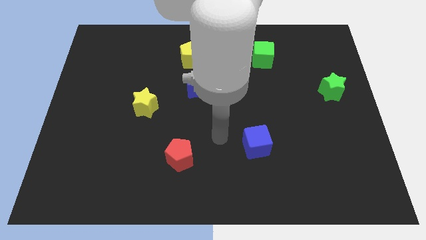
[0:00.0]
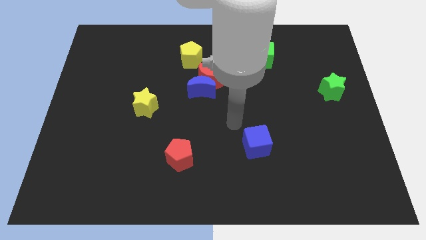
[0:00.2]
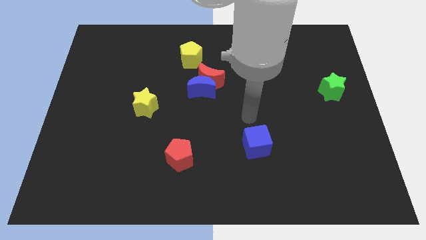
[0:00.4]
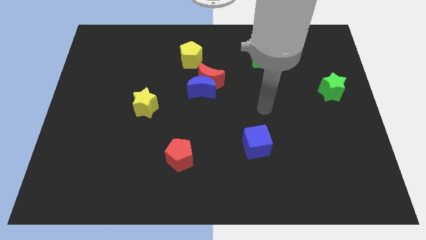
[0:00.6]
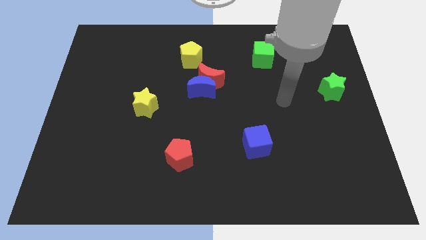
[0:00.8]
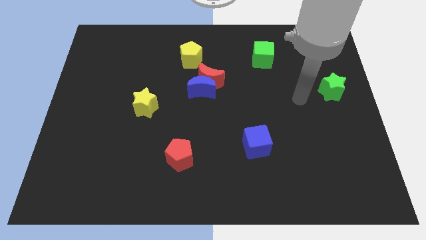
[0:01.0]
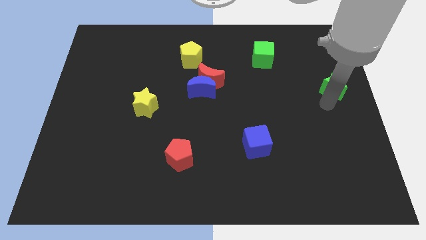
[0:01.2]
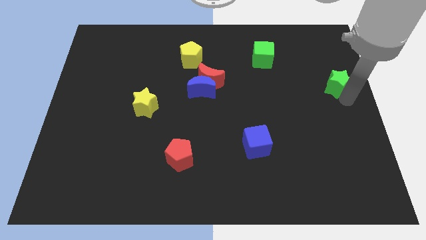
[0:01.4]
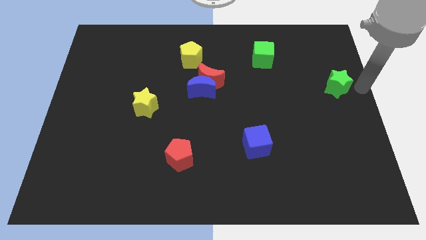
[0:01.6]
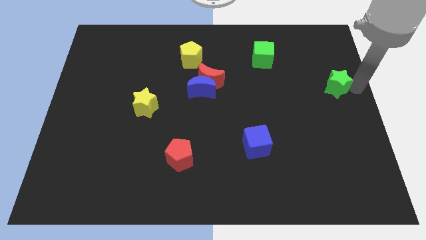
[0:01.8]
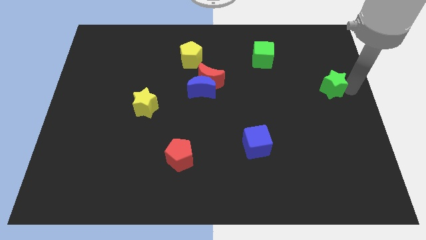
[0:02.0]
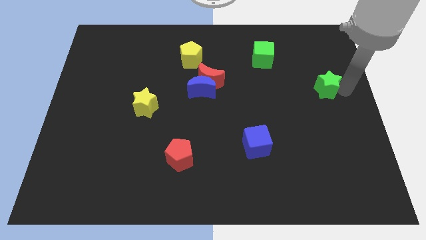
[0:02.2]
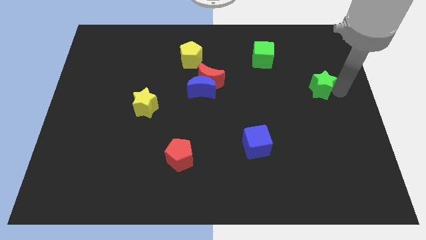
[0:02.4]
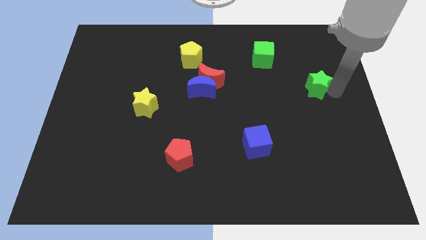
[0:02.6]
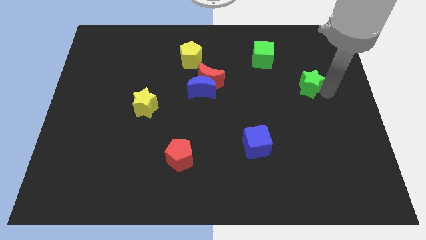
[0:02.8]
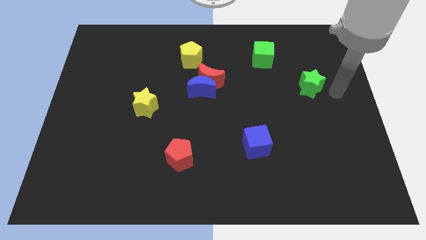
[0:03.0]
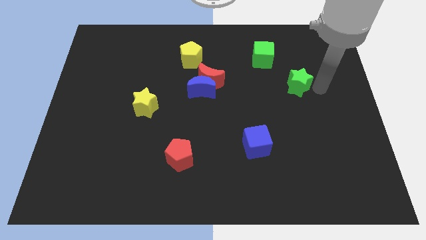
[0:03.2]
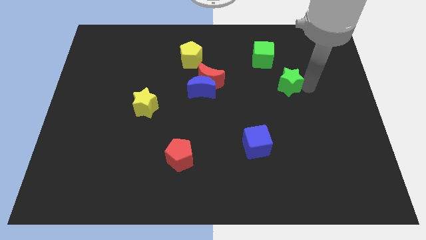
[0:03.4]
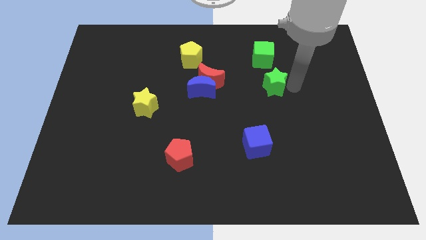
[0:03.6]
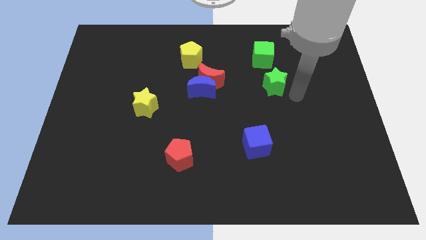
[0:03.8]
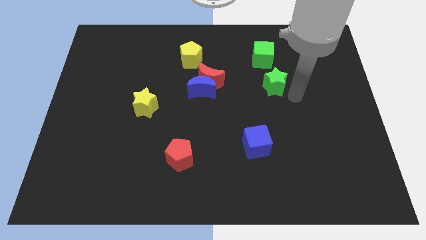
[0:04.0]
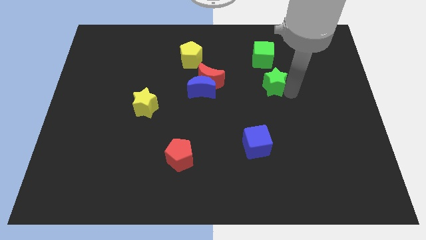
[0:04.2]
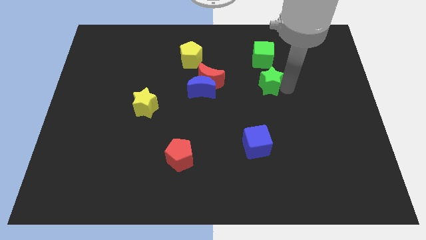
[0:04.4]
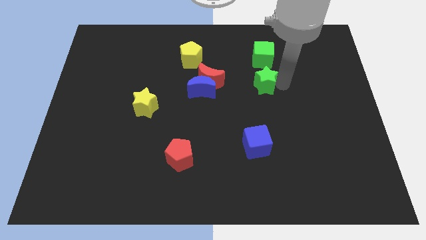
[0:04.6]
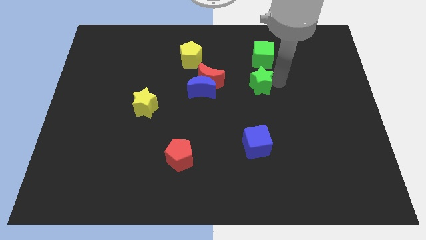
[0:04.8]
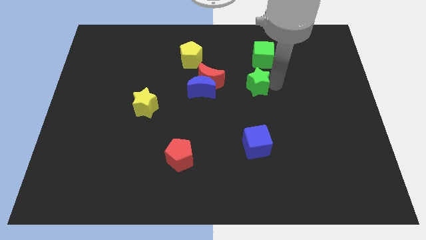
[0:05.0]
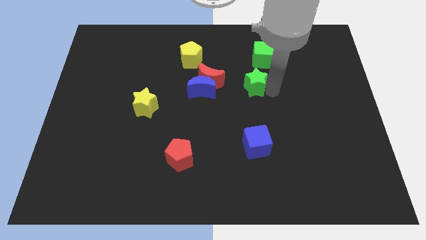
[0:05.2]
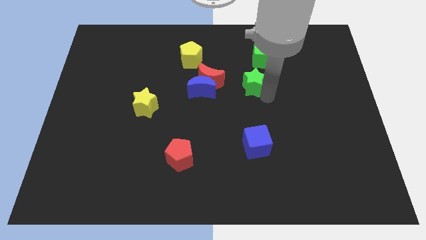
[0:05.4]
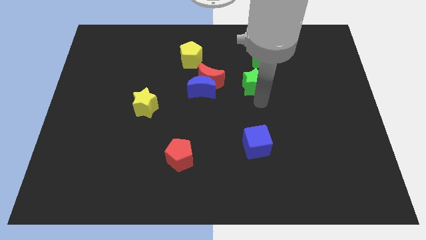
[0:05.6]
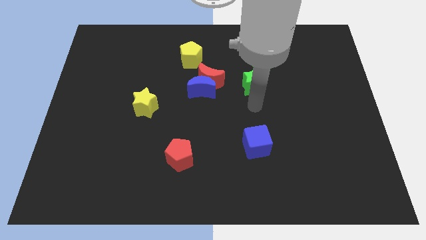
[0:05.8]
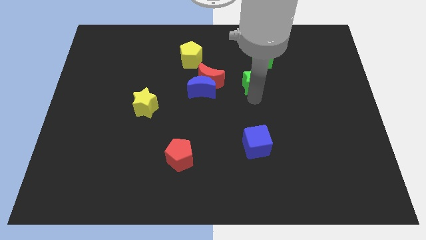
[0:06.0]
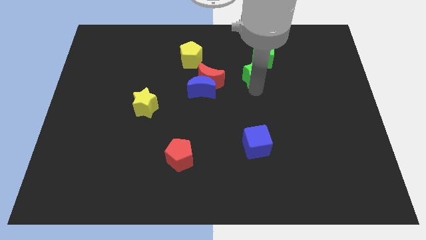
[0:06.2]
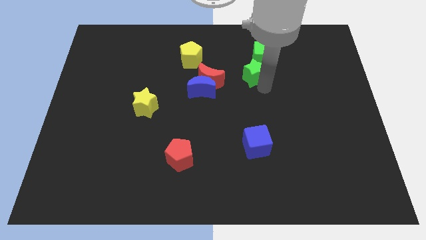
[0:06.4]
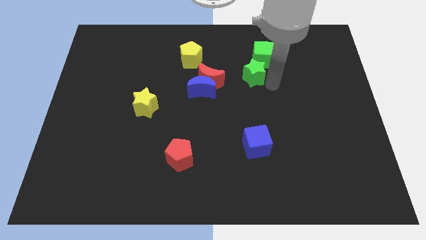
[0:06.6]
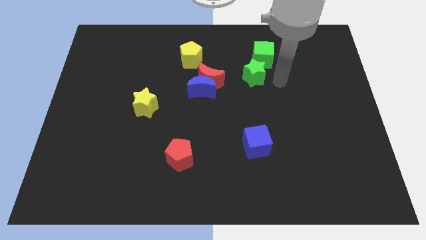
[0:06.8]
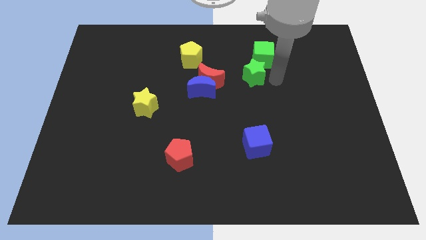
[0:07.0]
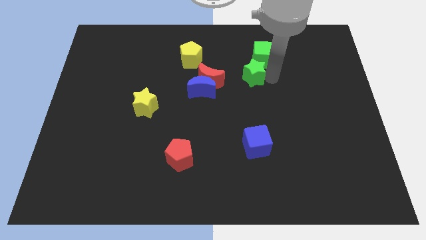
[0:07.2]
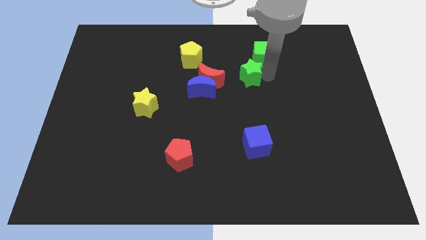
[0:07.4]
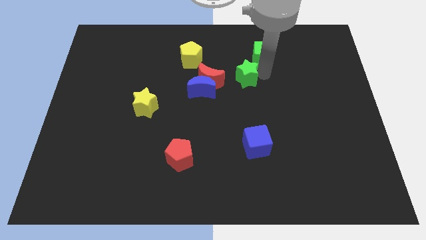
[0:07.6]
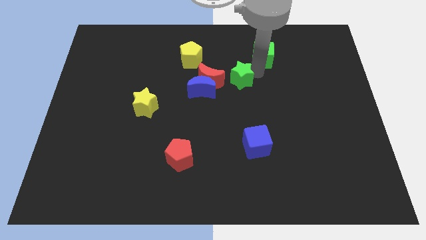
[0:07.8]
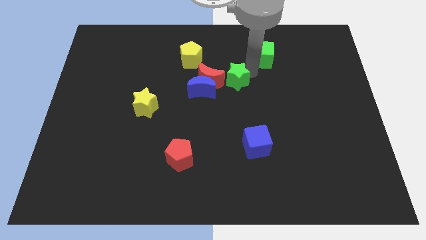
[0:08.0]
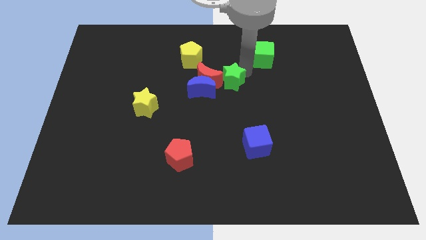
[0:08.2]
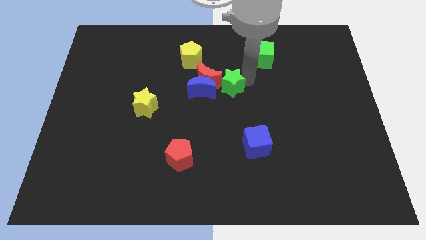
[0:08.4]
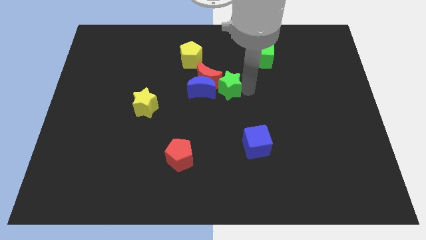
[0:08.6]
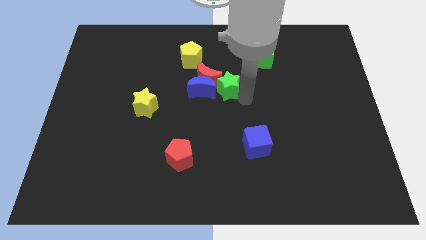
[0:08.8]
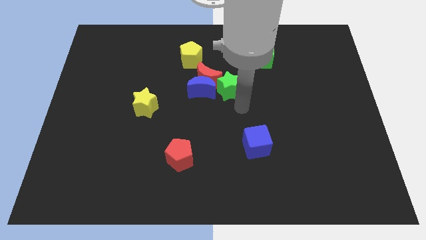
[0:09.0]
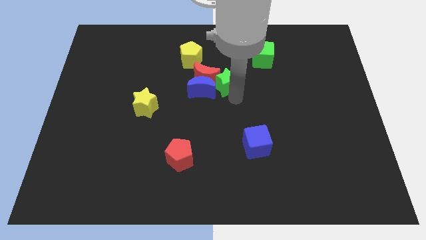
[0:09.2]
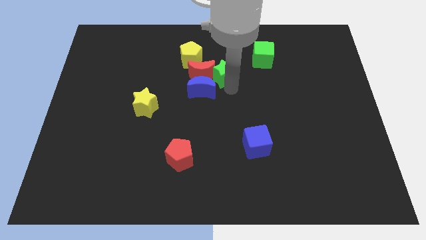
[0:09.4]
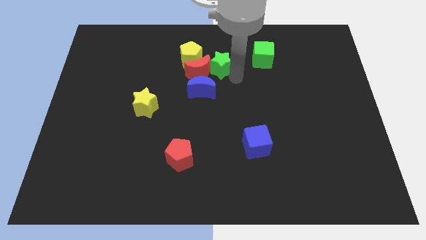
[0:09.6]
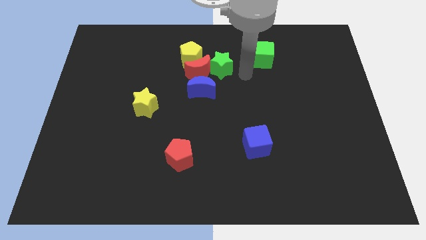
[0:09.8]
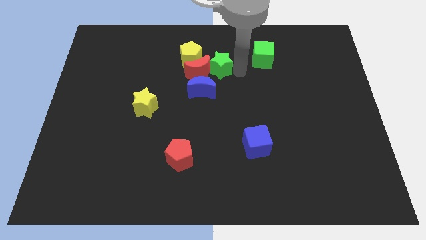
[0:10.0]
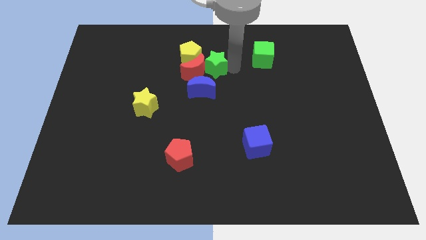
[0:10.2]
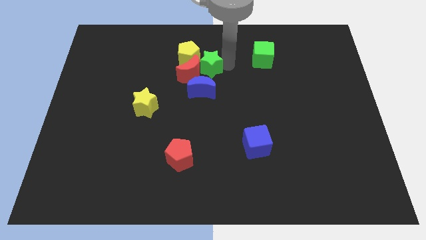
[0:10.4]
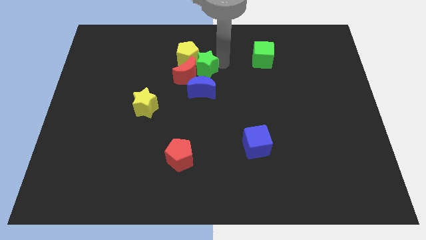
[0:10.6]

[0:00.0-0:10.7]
put the green star towards the yellow pentagon

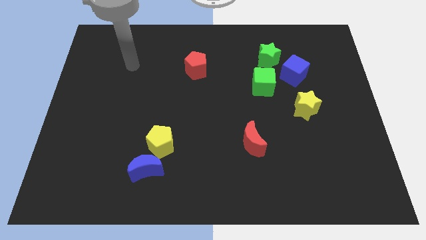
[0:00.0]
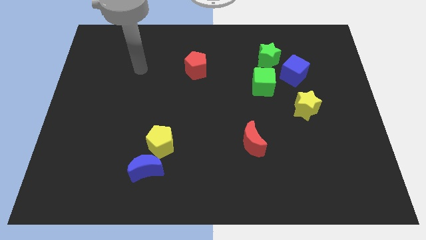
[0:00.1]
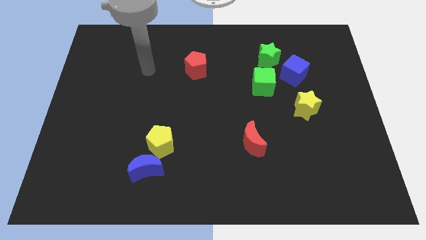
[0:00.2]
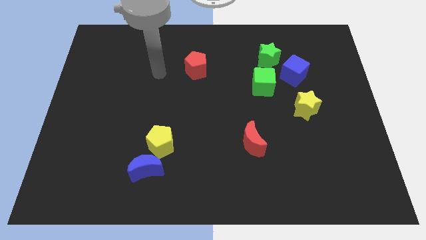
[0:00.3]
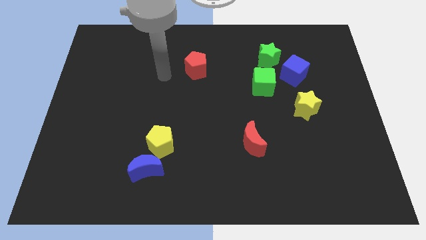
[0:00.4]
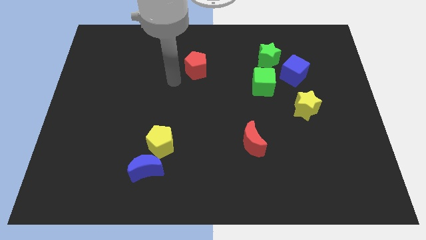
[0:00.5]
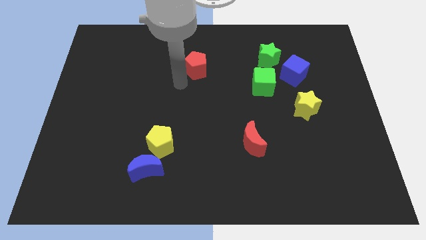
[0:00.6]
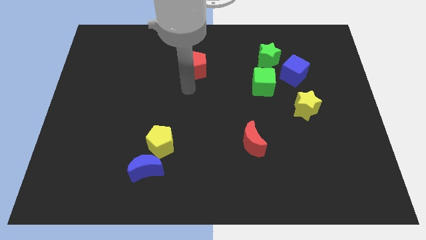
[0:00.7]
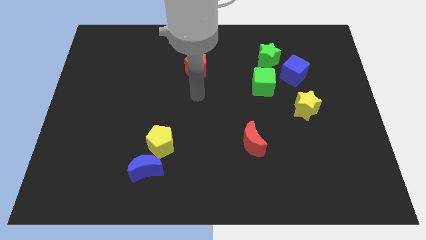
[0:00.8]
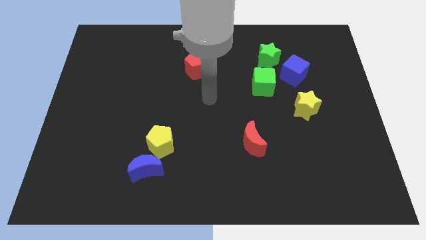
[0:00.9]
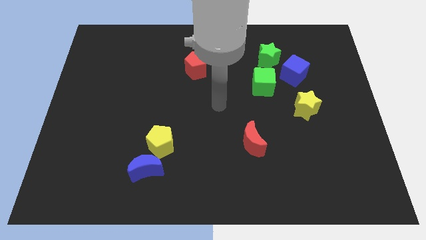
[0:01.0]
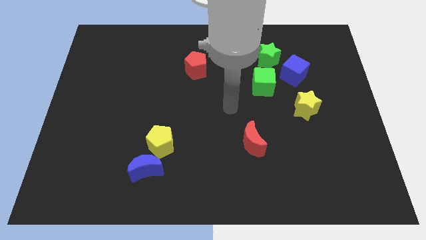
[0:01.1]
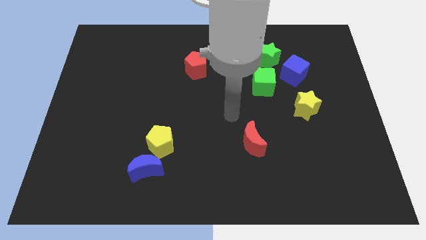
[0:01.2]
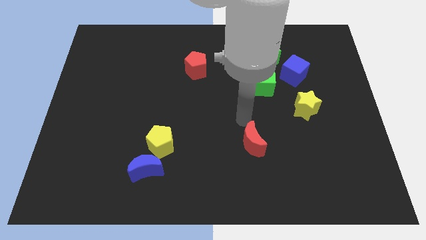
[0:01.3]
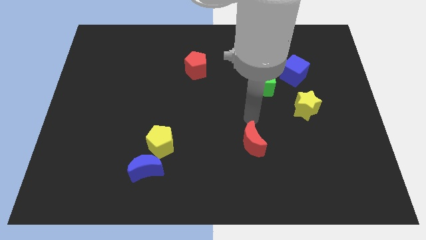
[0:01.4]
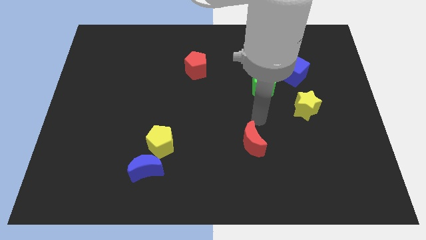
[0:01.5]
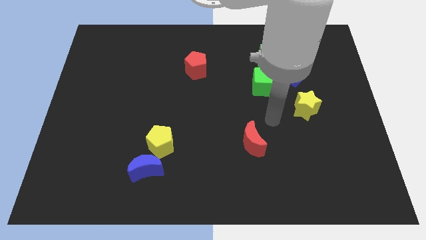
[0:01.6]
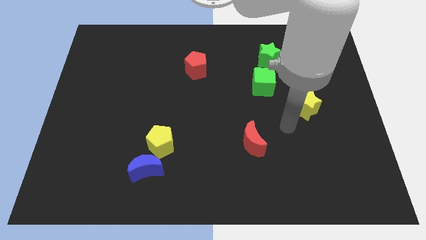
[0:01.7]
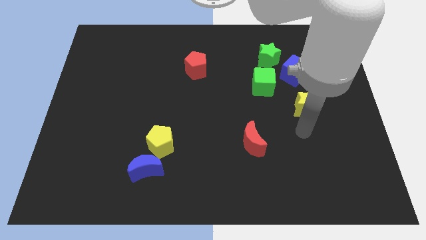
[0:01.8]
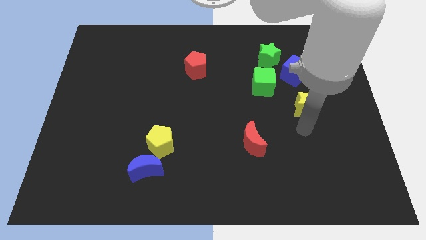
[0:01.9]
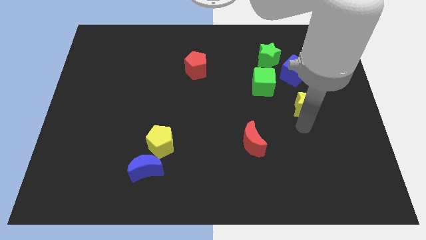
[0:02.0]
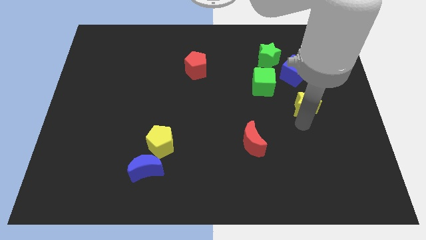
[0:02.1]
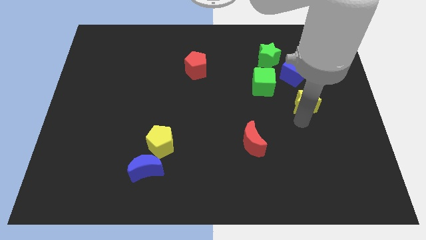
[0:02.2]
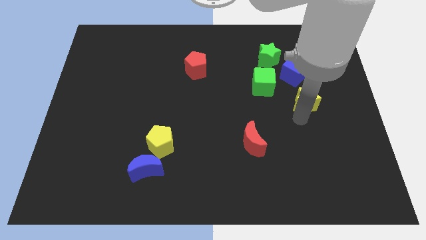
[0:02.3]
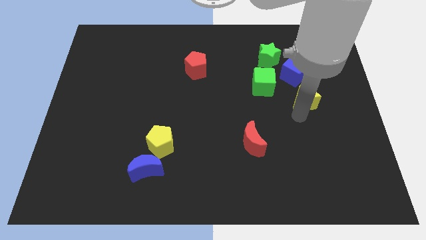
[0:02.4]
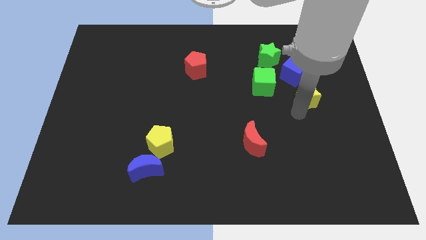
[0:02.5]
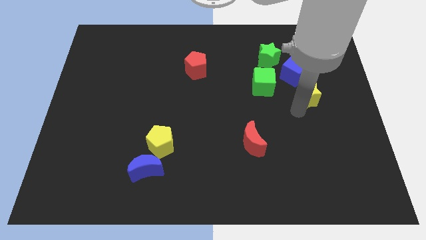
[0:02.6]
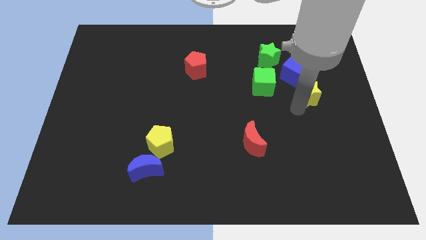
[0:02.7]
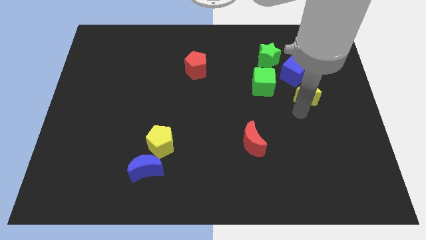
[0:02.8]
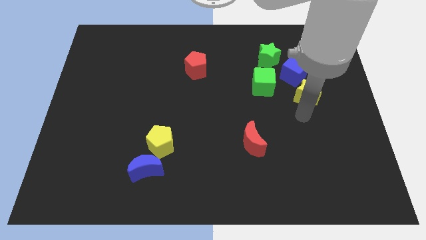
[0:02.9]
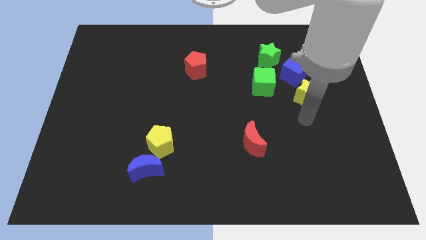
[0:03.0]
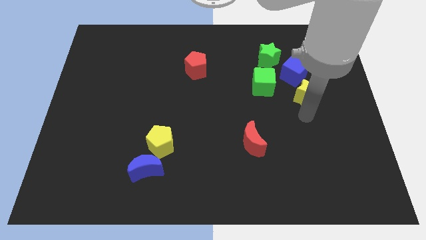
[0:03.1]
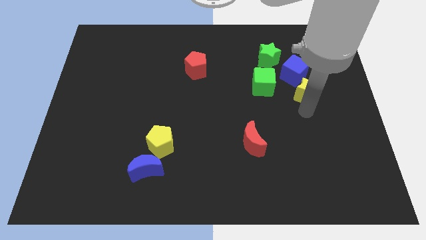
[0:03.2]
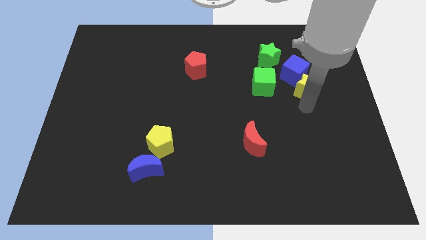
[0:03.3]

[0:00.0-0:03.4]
move the yellow star towards the blue cube
